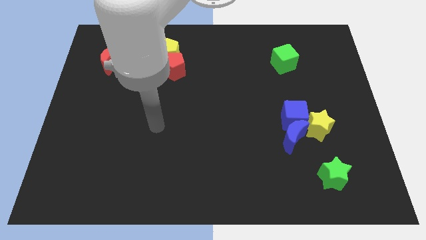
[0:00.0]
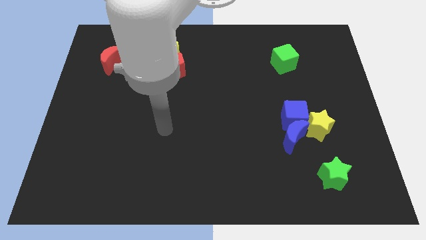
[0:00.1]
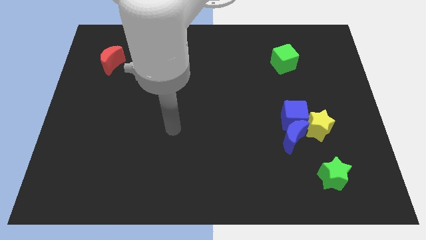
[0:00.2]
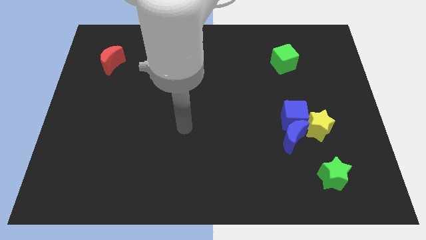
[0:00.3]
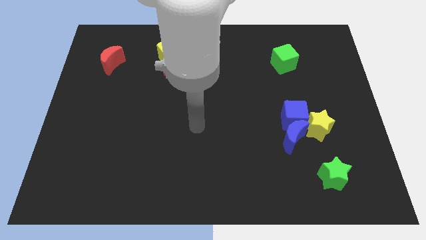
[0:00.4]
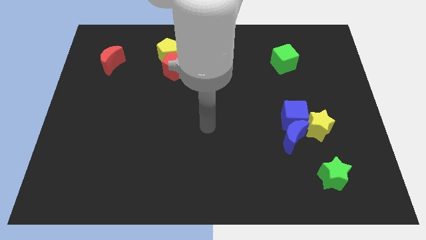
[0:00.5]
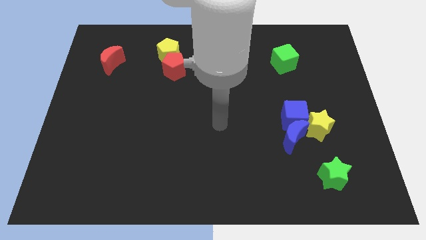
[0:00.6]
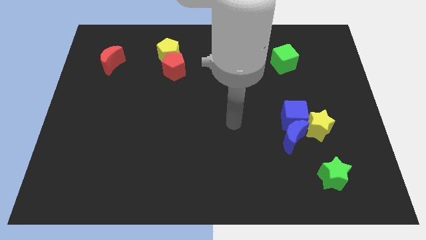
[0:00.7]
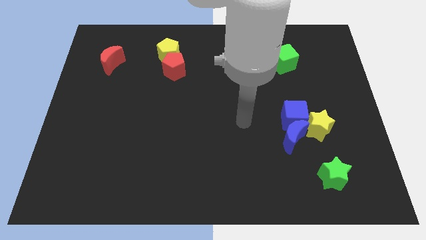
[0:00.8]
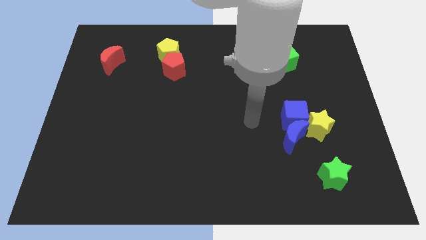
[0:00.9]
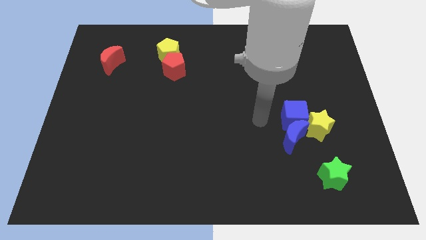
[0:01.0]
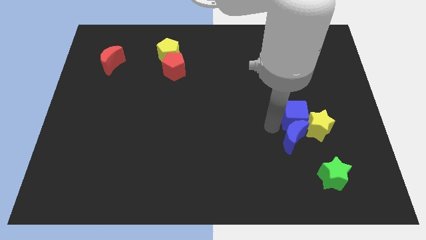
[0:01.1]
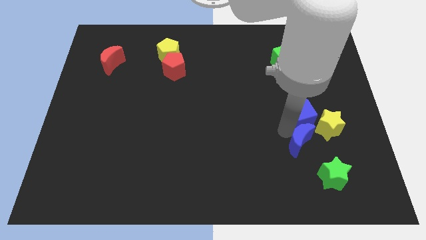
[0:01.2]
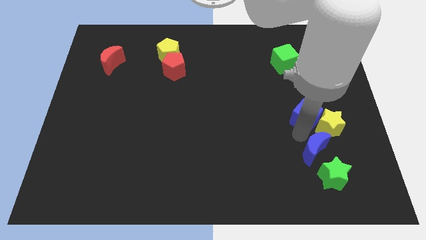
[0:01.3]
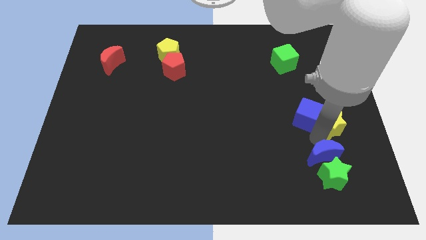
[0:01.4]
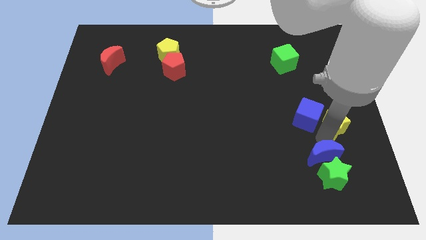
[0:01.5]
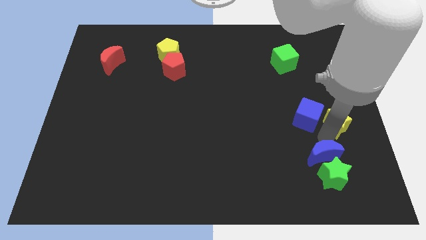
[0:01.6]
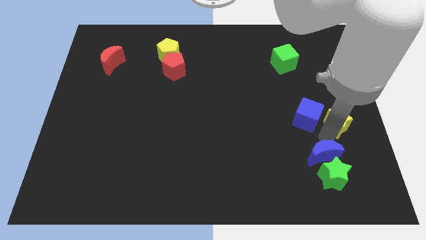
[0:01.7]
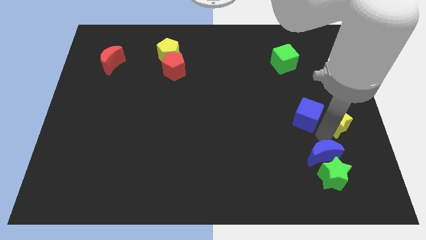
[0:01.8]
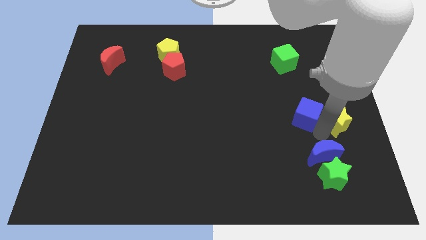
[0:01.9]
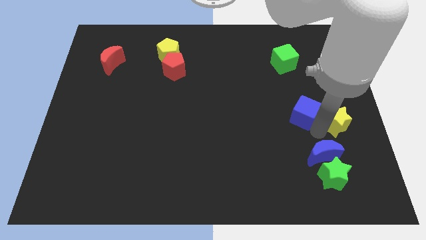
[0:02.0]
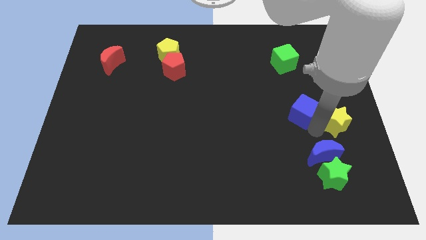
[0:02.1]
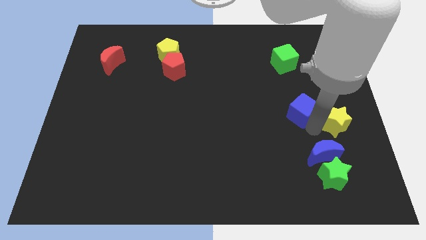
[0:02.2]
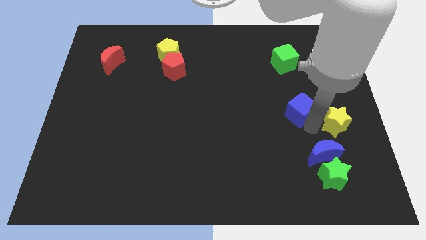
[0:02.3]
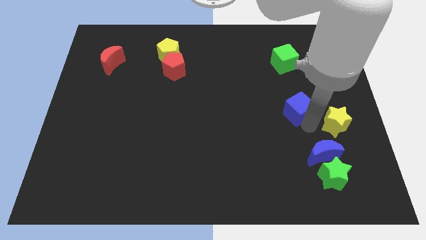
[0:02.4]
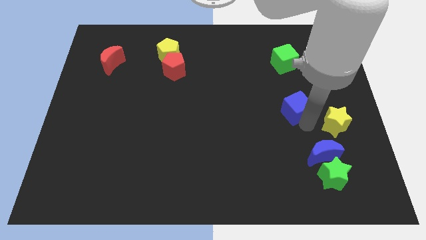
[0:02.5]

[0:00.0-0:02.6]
move the blue cube away from the blue moon and yellow star

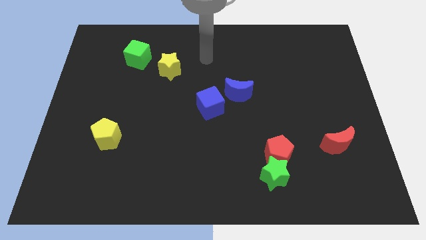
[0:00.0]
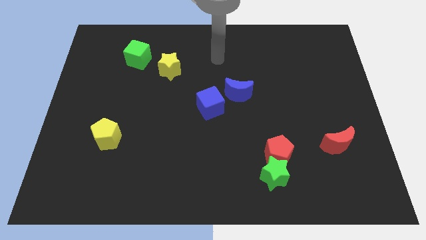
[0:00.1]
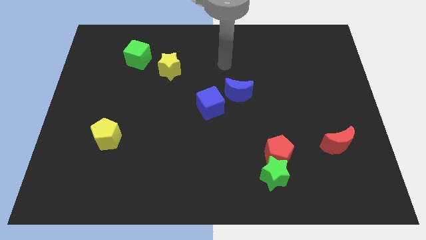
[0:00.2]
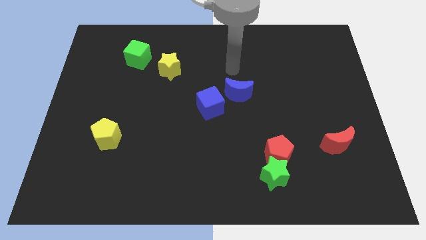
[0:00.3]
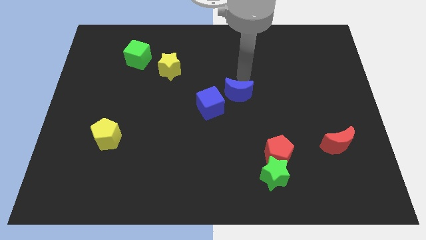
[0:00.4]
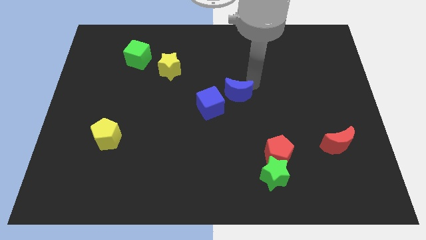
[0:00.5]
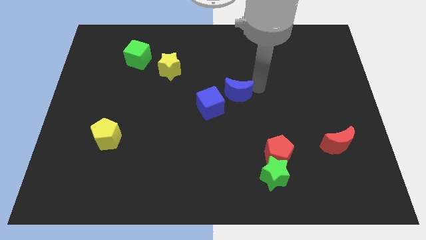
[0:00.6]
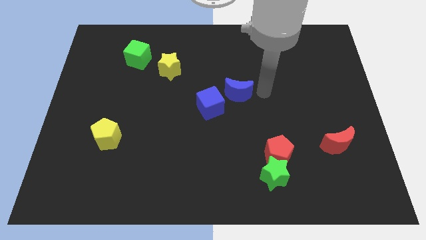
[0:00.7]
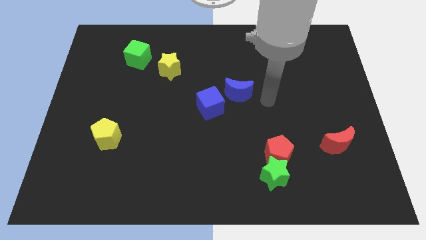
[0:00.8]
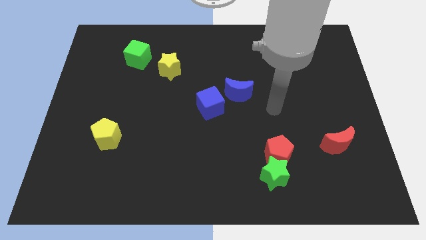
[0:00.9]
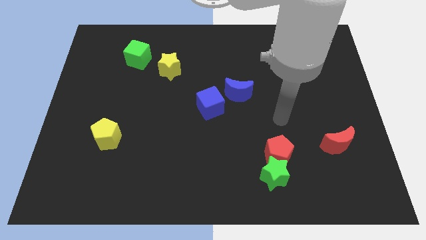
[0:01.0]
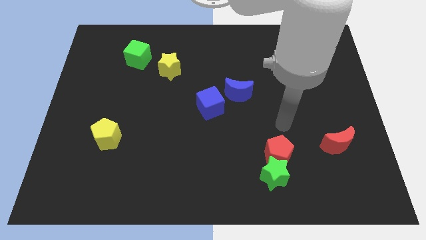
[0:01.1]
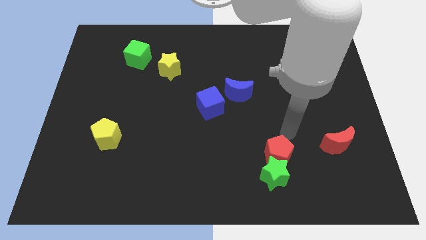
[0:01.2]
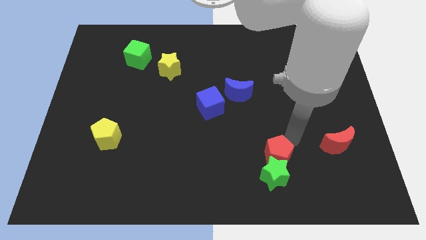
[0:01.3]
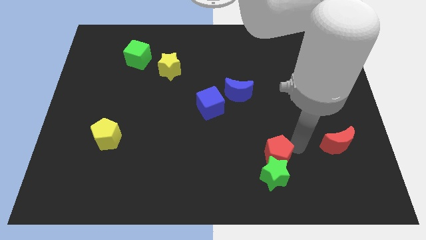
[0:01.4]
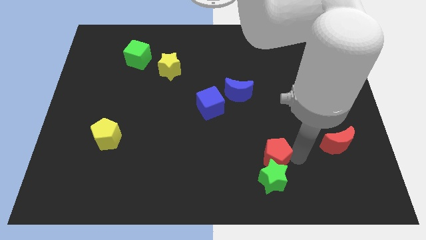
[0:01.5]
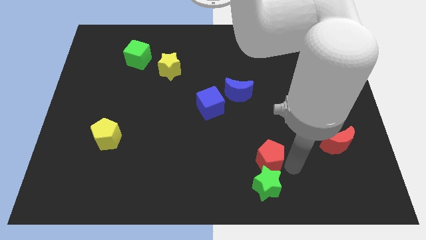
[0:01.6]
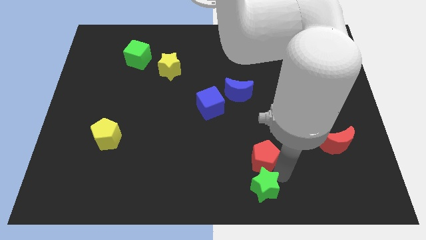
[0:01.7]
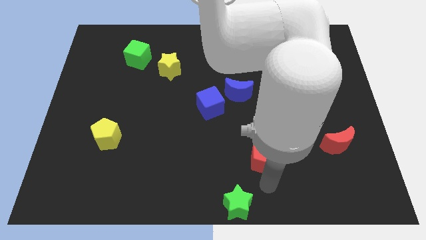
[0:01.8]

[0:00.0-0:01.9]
separate the red pentagon from the green star

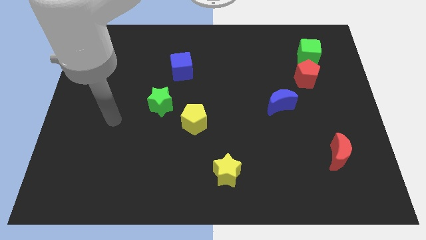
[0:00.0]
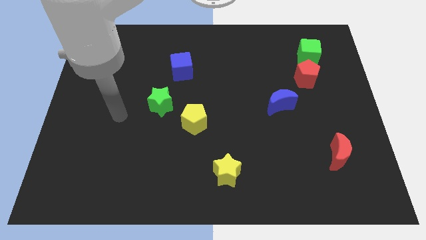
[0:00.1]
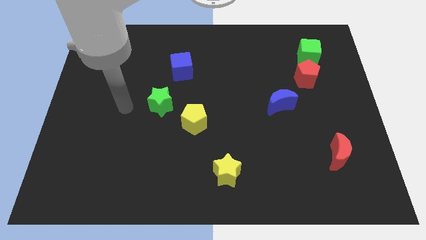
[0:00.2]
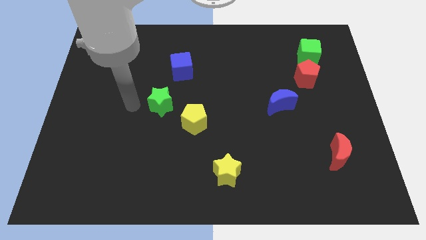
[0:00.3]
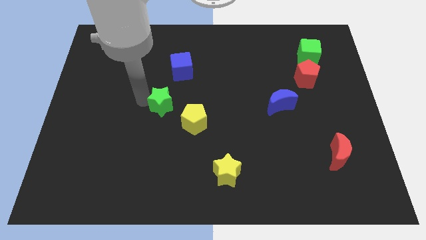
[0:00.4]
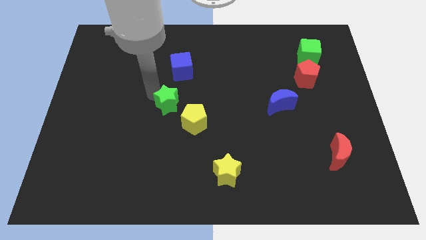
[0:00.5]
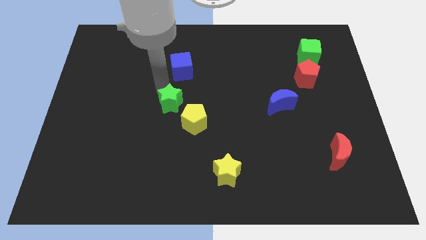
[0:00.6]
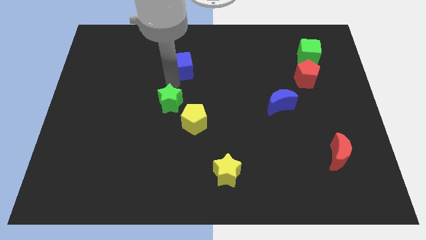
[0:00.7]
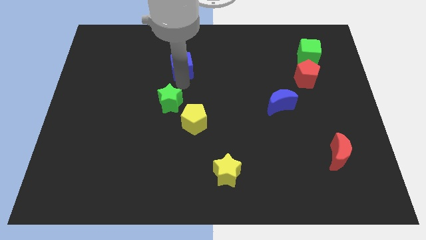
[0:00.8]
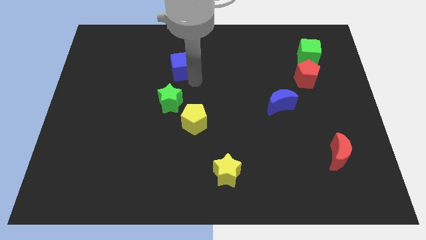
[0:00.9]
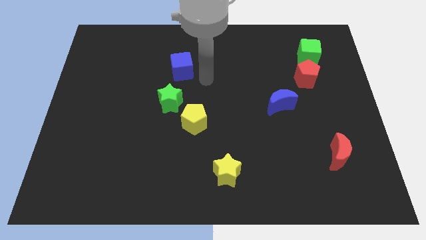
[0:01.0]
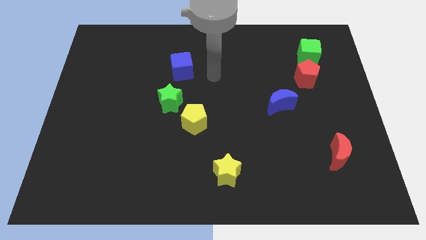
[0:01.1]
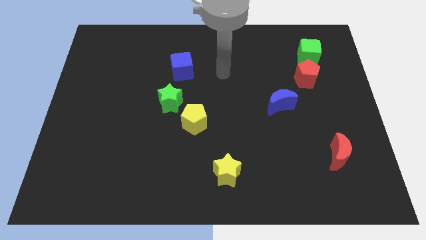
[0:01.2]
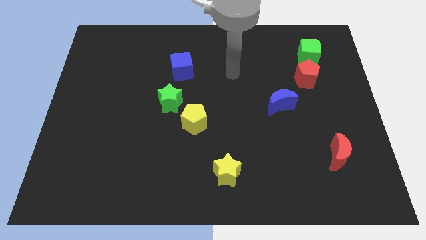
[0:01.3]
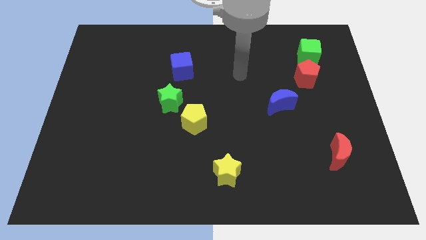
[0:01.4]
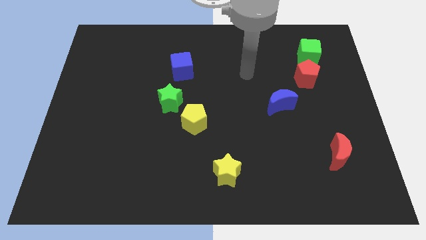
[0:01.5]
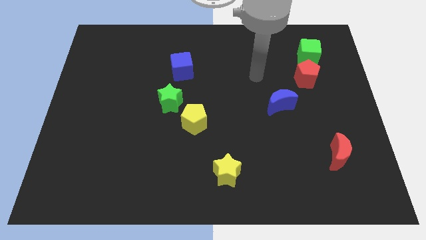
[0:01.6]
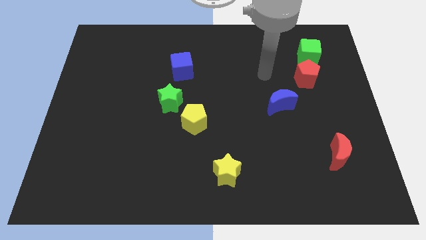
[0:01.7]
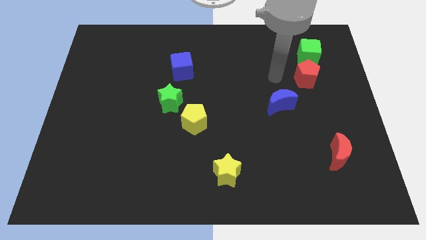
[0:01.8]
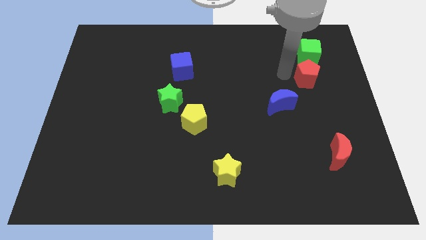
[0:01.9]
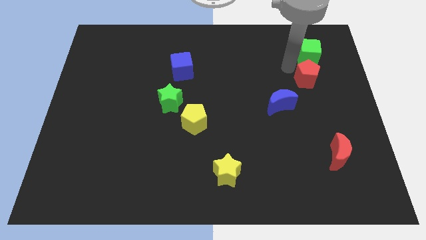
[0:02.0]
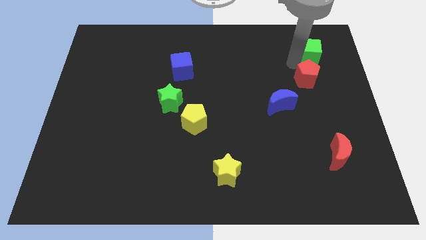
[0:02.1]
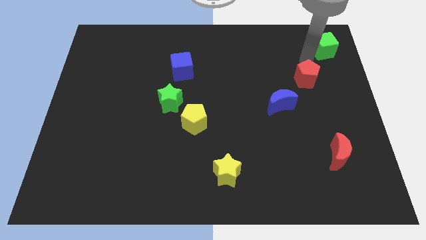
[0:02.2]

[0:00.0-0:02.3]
pull the red pentagon apart from the green cube

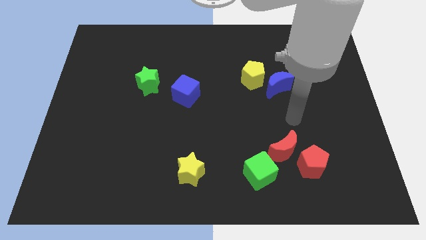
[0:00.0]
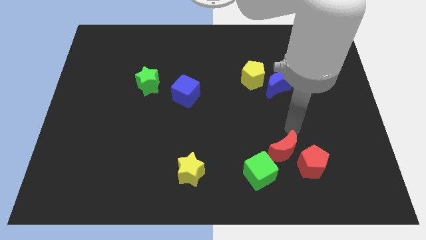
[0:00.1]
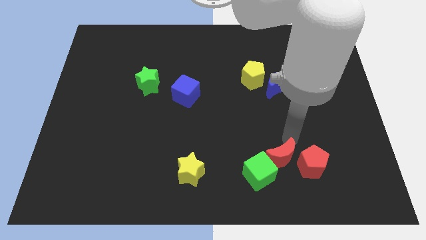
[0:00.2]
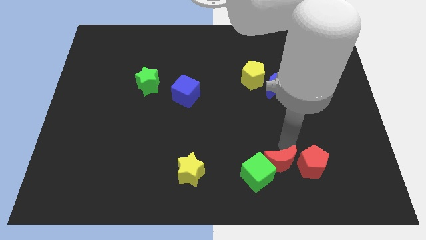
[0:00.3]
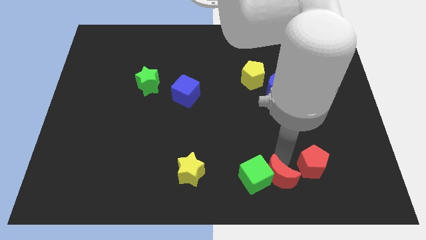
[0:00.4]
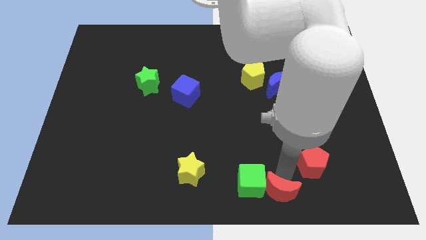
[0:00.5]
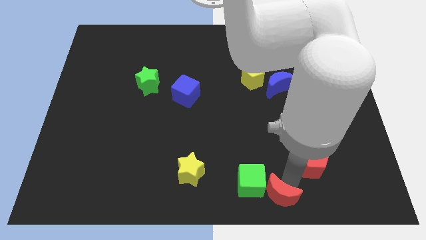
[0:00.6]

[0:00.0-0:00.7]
separate the red pentagon from the red moon

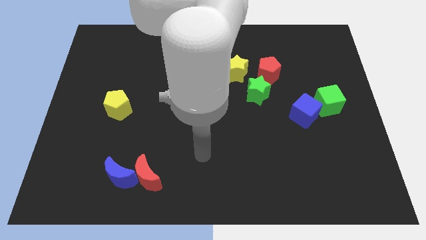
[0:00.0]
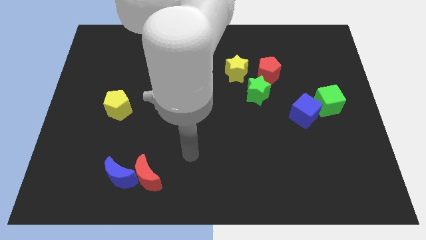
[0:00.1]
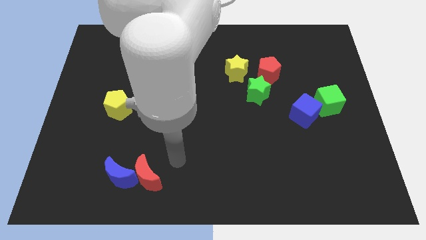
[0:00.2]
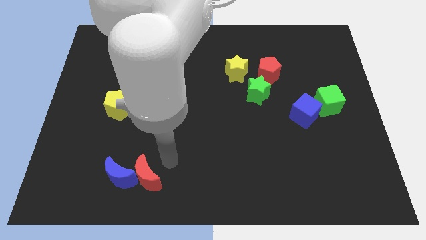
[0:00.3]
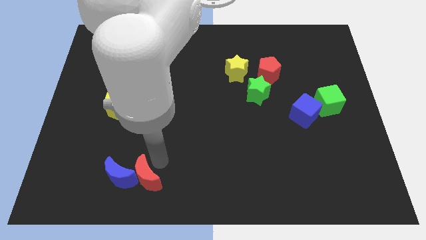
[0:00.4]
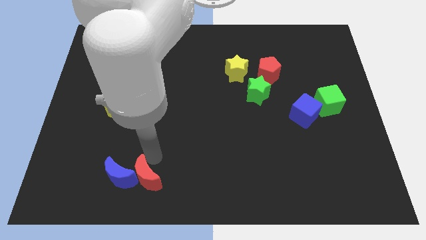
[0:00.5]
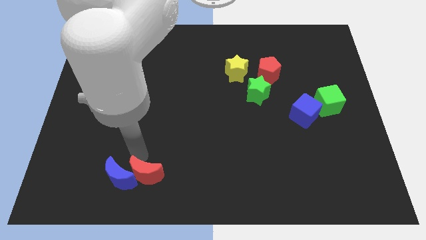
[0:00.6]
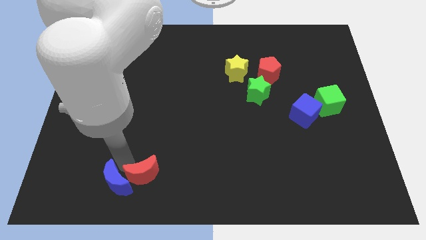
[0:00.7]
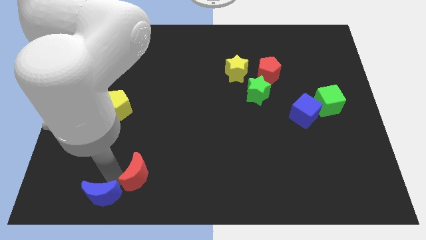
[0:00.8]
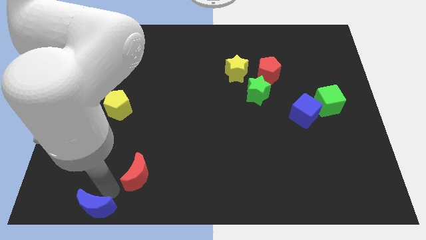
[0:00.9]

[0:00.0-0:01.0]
separate the red moon from the blue moon

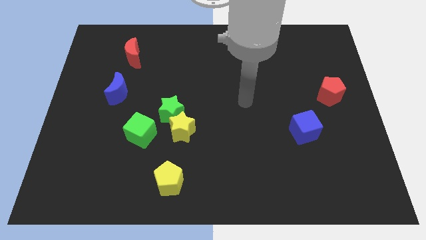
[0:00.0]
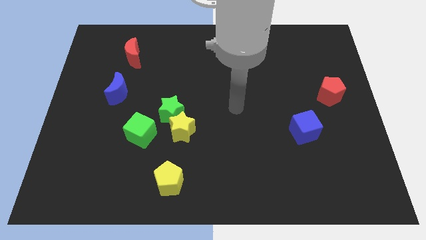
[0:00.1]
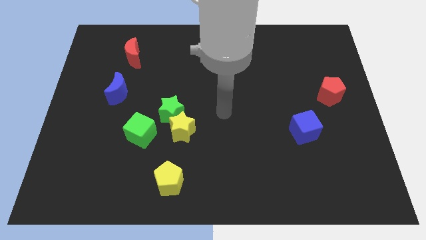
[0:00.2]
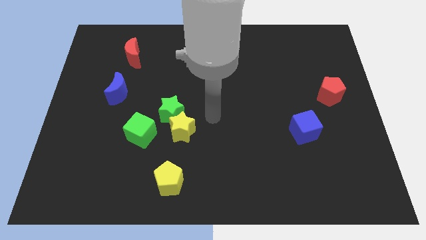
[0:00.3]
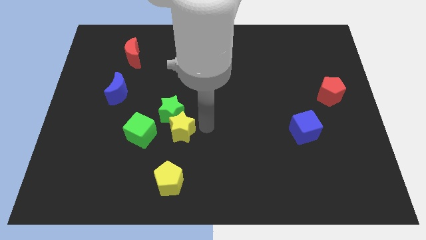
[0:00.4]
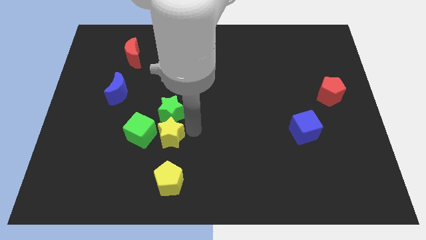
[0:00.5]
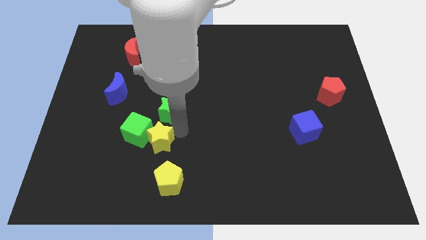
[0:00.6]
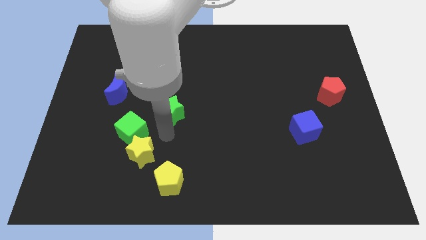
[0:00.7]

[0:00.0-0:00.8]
move the green star away from the yellow star and green cube

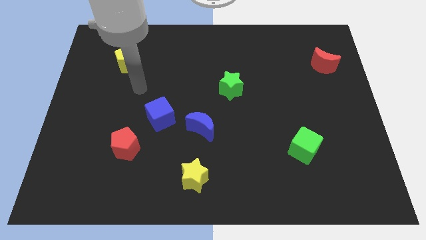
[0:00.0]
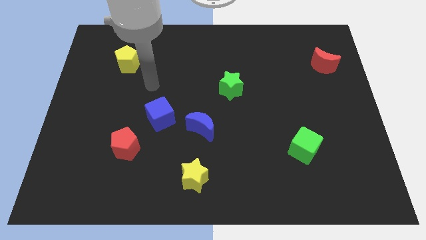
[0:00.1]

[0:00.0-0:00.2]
move the blue moon away from the blue cube

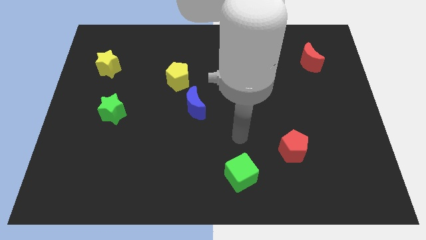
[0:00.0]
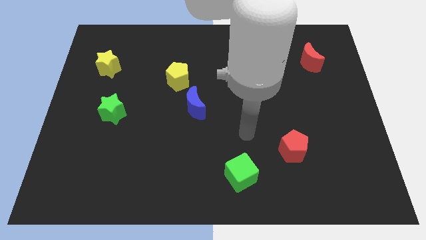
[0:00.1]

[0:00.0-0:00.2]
move the blue moon away from the yellow pentagon
